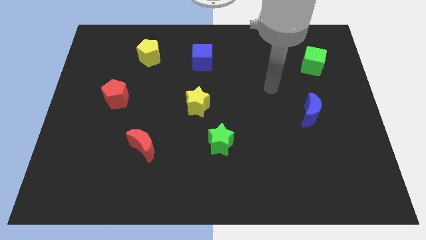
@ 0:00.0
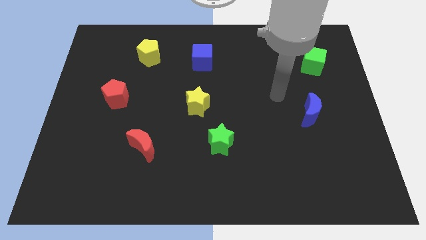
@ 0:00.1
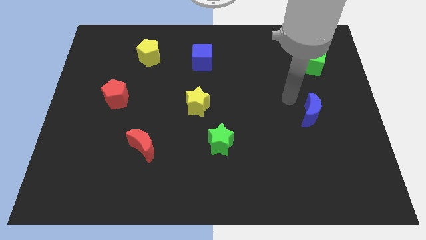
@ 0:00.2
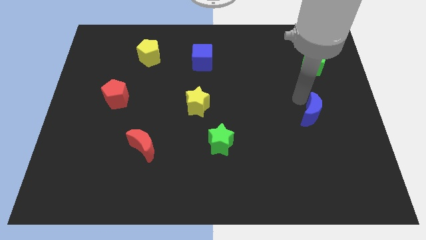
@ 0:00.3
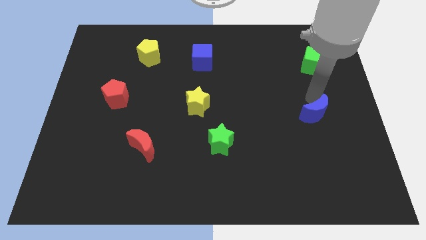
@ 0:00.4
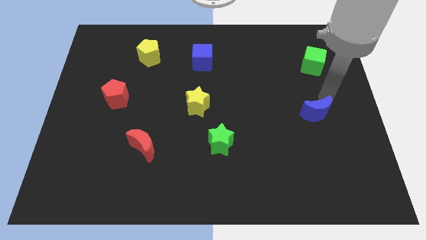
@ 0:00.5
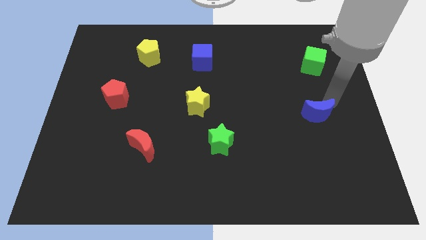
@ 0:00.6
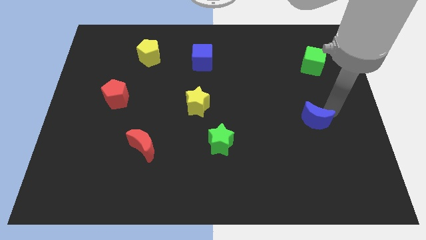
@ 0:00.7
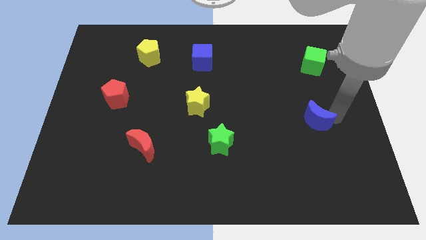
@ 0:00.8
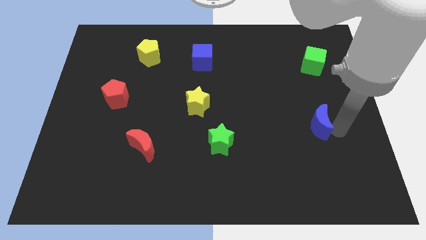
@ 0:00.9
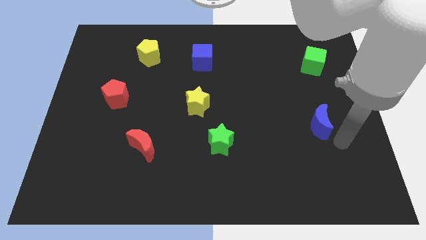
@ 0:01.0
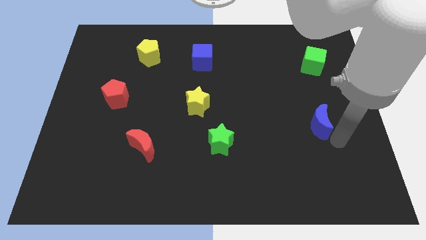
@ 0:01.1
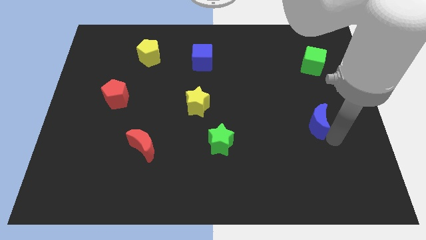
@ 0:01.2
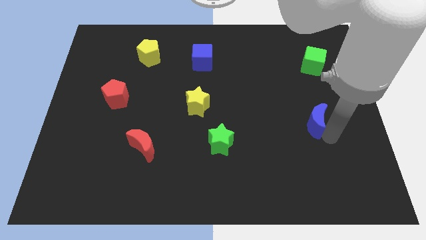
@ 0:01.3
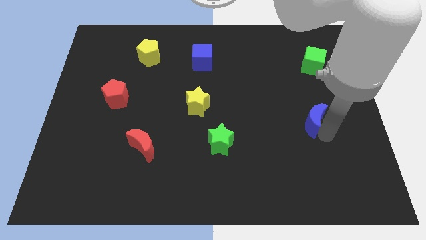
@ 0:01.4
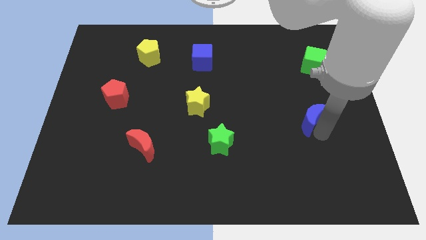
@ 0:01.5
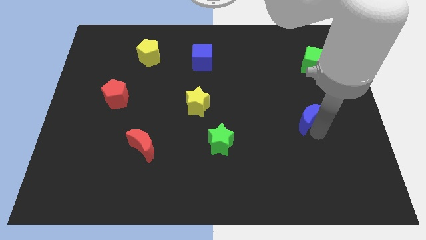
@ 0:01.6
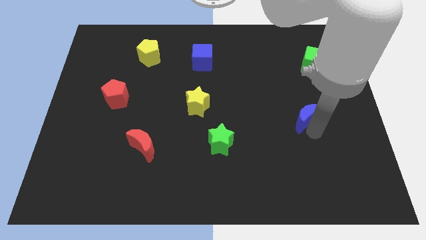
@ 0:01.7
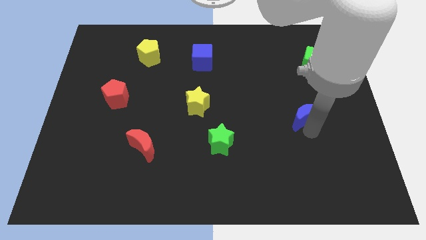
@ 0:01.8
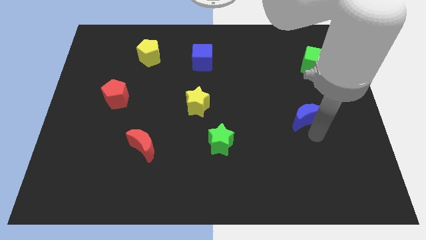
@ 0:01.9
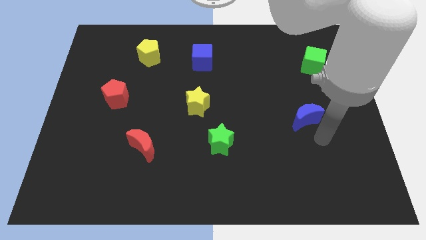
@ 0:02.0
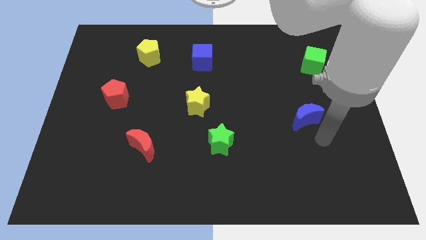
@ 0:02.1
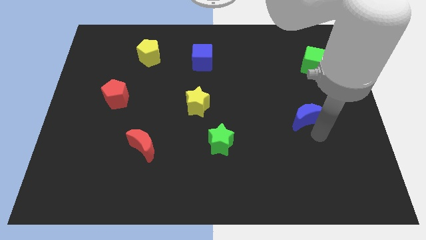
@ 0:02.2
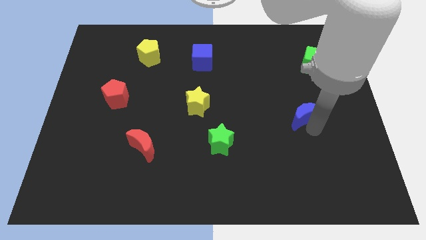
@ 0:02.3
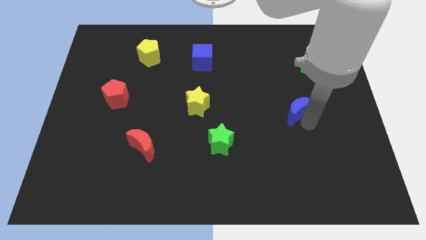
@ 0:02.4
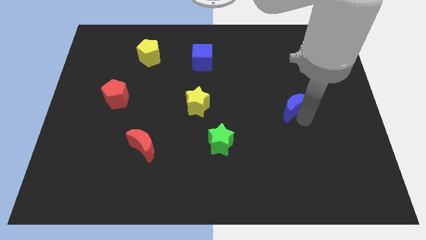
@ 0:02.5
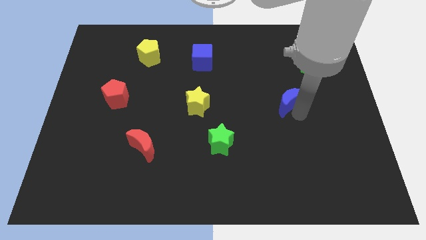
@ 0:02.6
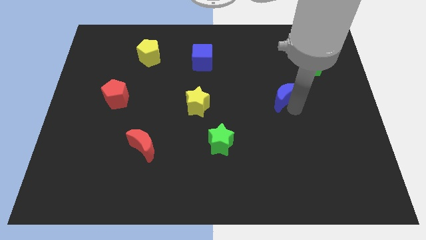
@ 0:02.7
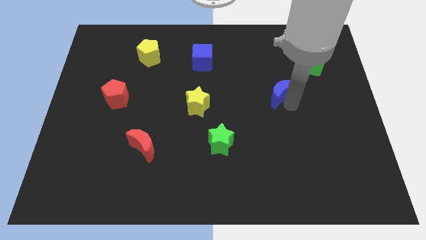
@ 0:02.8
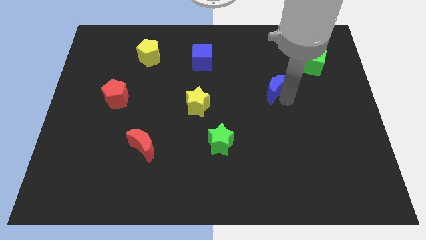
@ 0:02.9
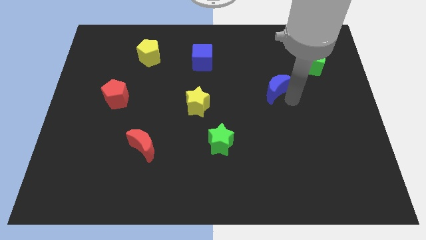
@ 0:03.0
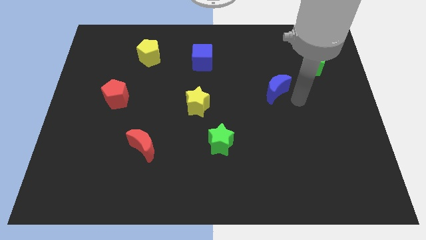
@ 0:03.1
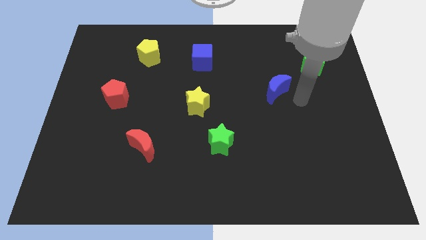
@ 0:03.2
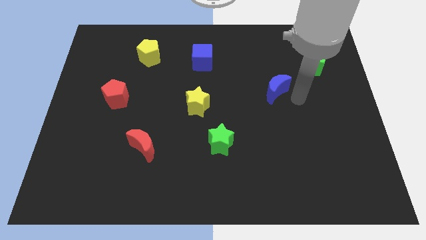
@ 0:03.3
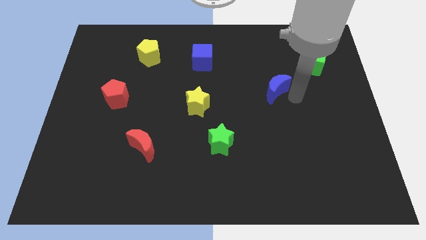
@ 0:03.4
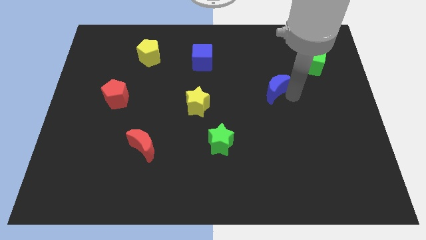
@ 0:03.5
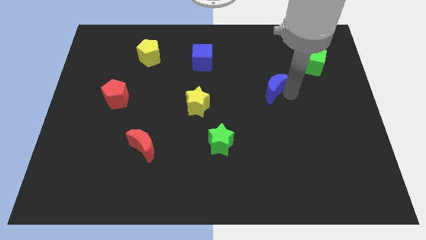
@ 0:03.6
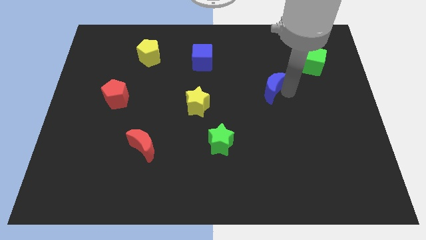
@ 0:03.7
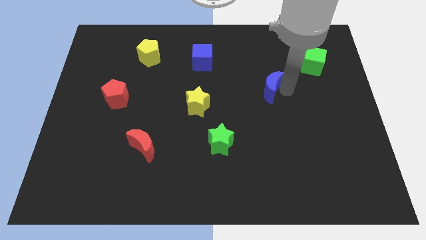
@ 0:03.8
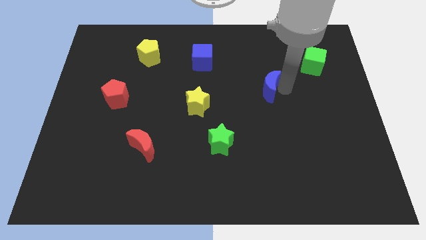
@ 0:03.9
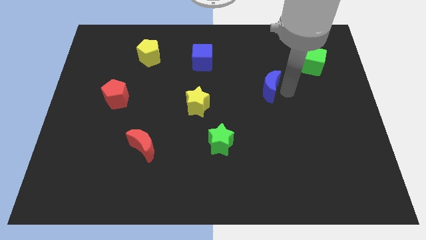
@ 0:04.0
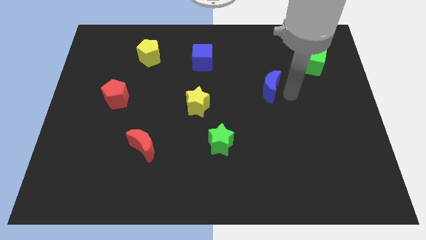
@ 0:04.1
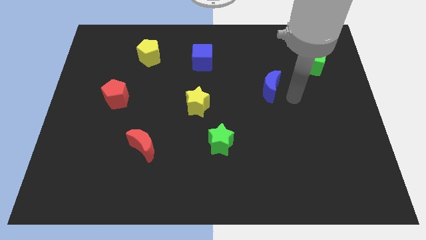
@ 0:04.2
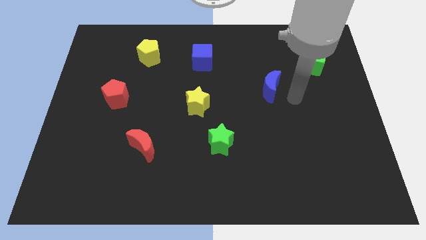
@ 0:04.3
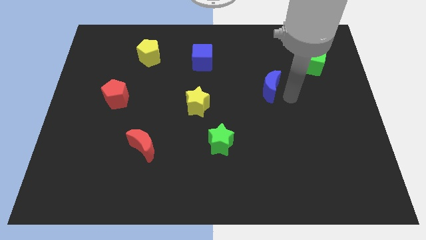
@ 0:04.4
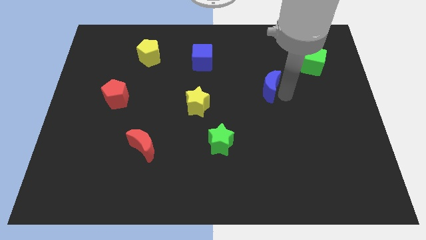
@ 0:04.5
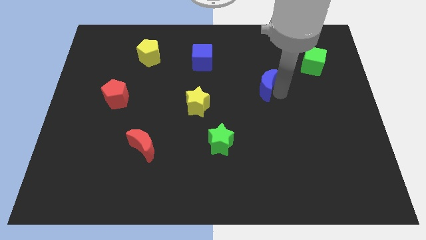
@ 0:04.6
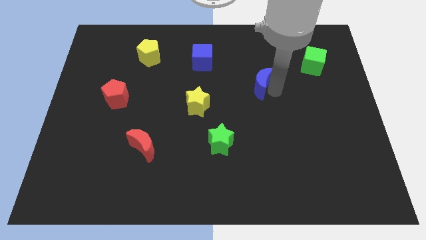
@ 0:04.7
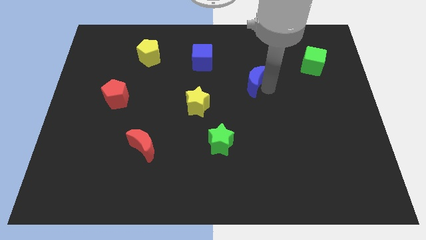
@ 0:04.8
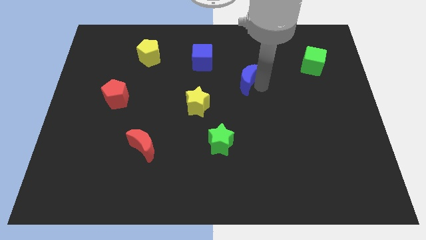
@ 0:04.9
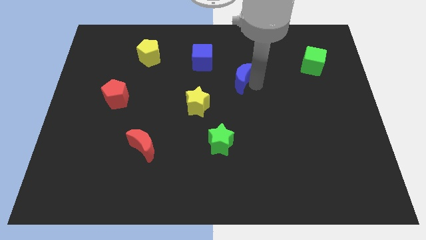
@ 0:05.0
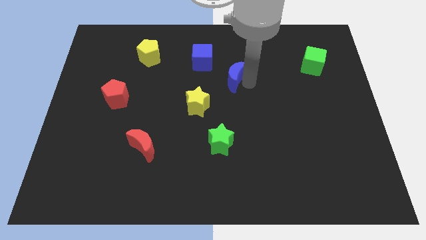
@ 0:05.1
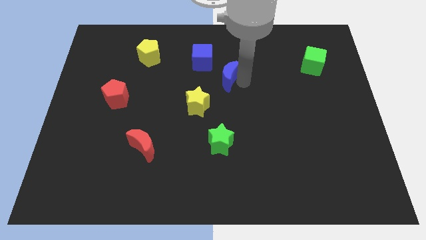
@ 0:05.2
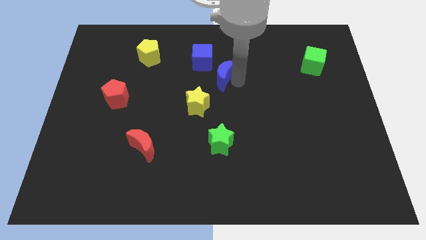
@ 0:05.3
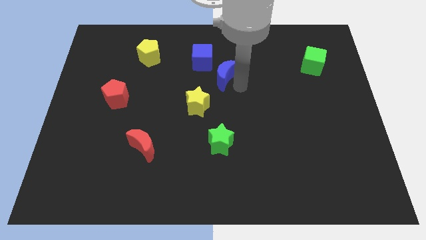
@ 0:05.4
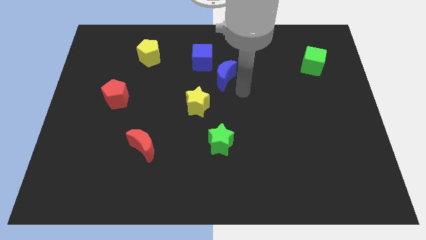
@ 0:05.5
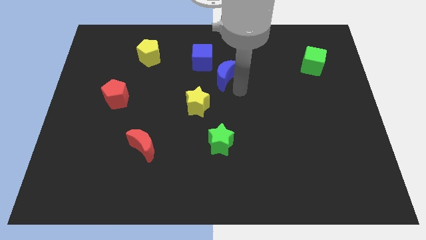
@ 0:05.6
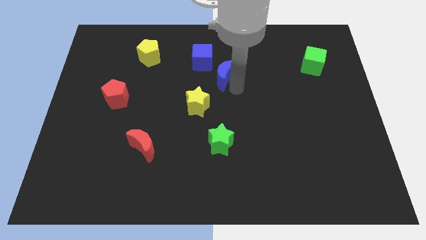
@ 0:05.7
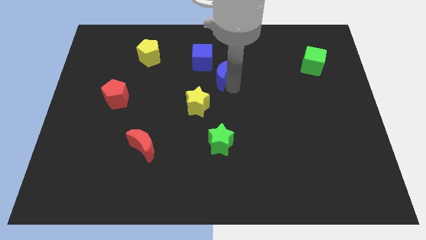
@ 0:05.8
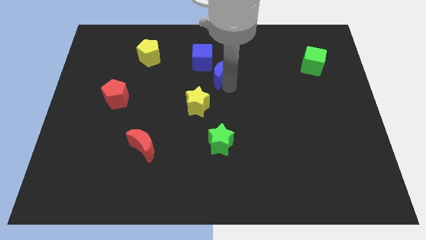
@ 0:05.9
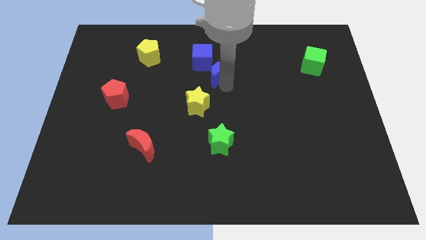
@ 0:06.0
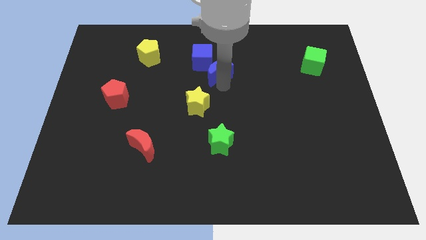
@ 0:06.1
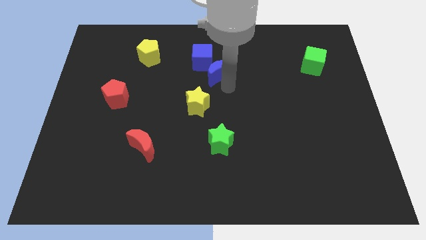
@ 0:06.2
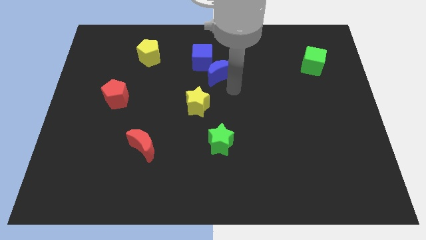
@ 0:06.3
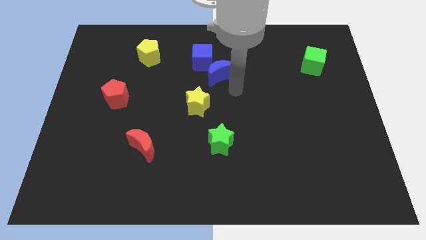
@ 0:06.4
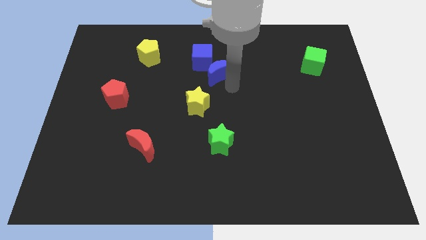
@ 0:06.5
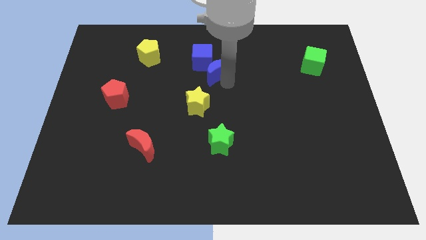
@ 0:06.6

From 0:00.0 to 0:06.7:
slide the blue moon to the blue cube

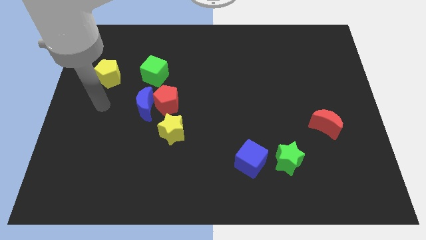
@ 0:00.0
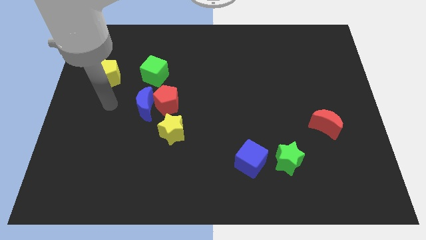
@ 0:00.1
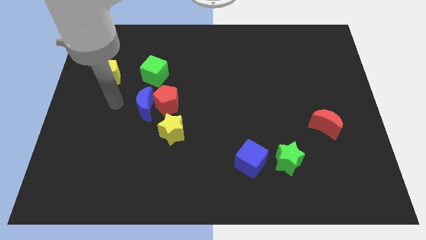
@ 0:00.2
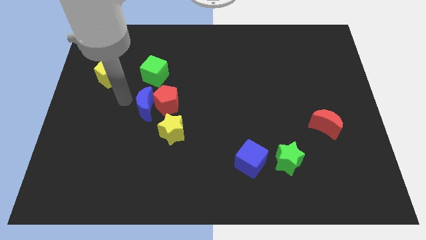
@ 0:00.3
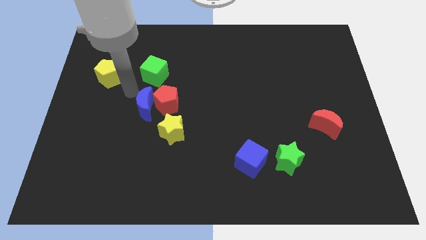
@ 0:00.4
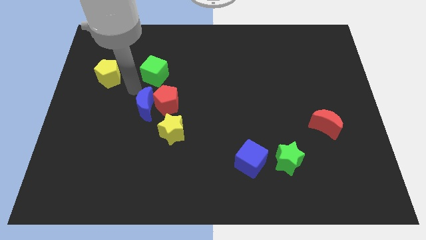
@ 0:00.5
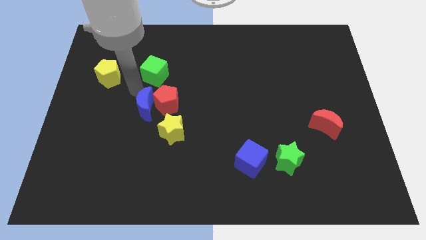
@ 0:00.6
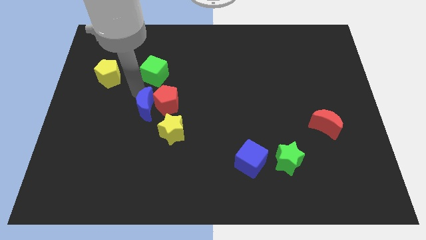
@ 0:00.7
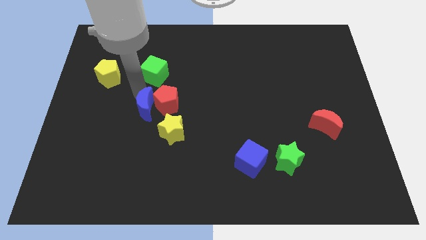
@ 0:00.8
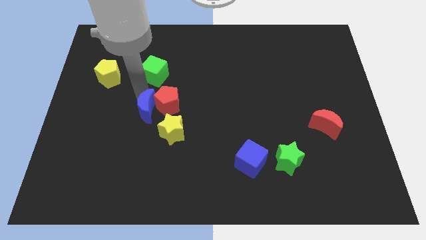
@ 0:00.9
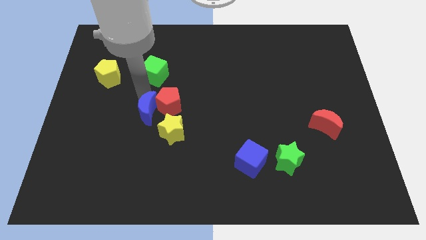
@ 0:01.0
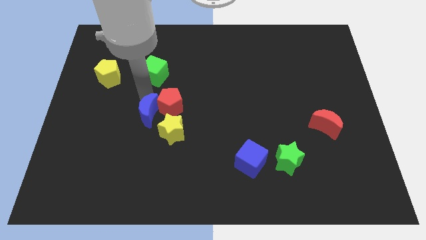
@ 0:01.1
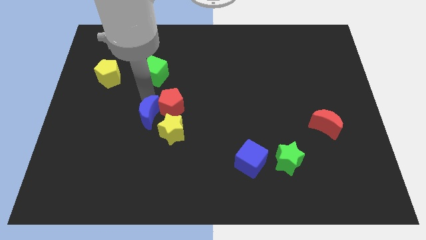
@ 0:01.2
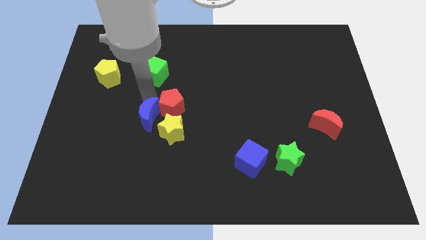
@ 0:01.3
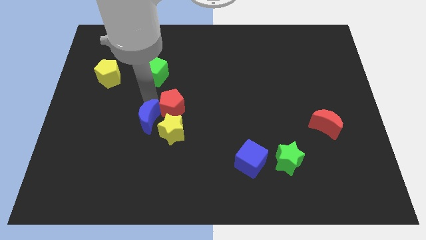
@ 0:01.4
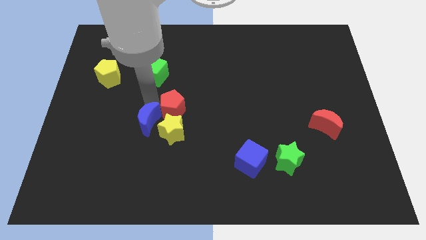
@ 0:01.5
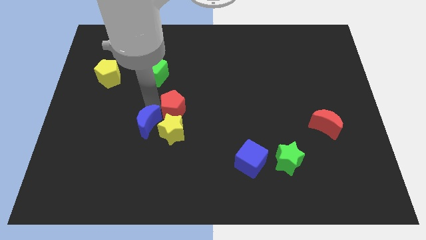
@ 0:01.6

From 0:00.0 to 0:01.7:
move the blue moon to the yellow star
